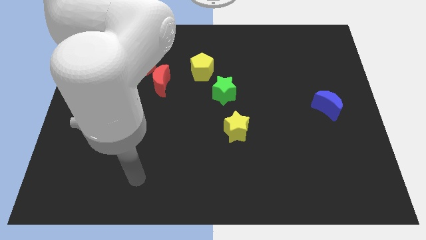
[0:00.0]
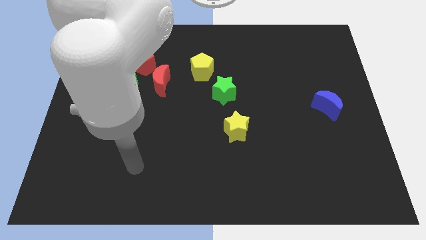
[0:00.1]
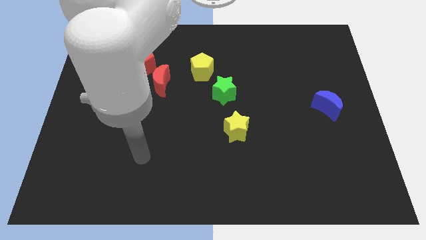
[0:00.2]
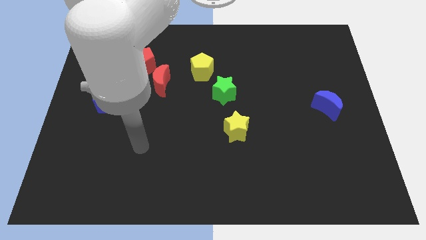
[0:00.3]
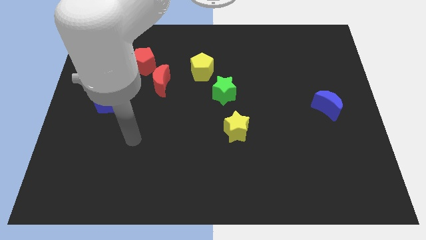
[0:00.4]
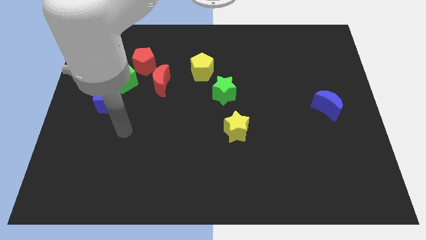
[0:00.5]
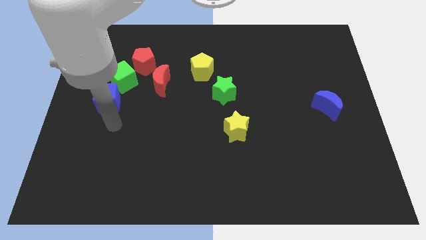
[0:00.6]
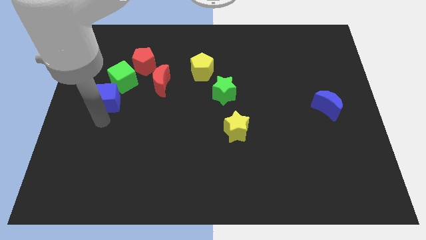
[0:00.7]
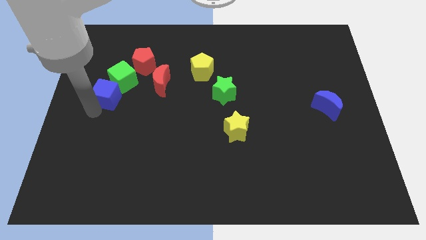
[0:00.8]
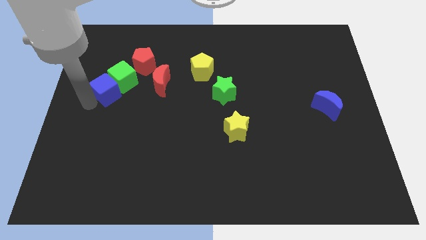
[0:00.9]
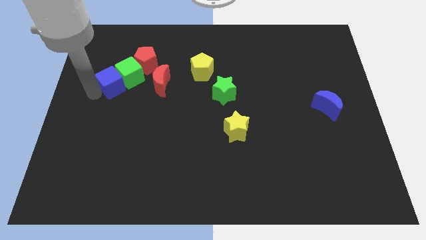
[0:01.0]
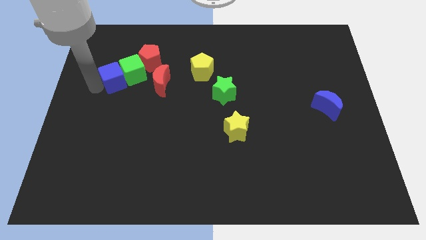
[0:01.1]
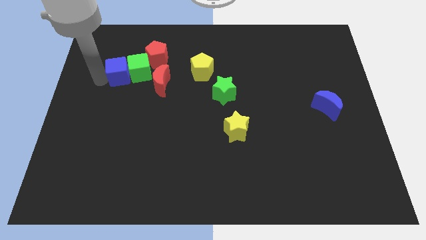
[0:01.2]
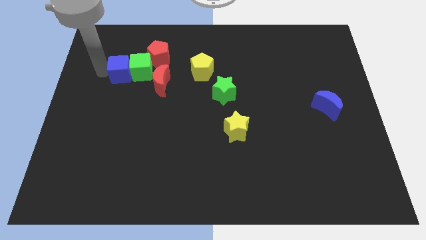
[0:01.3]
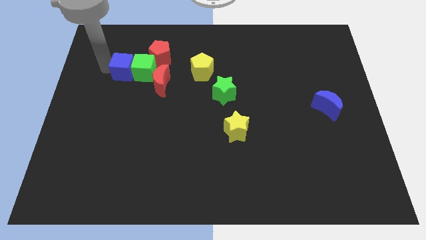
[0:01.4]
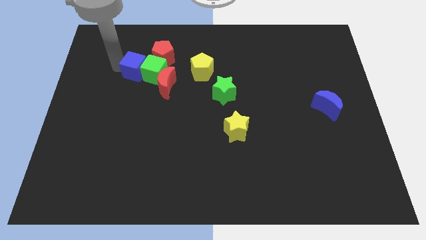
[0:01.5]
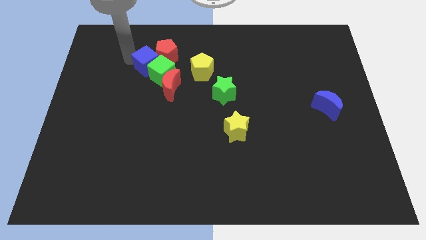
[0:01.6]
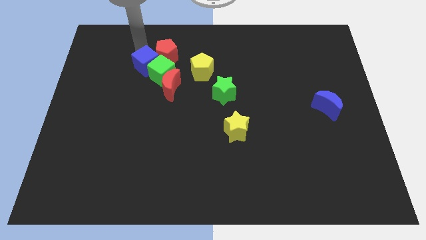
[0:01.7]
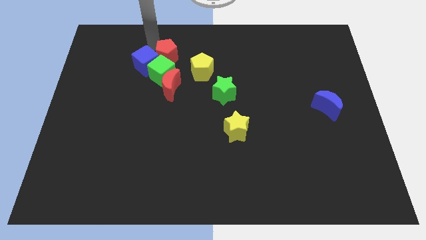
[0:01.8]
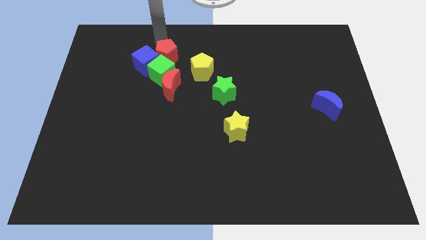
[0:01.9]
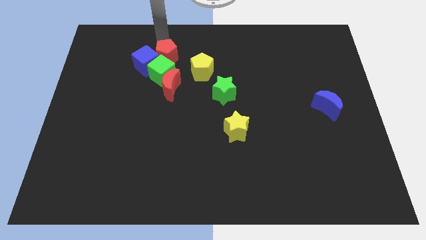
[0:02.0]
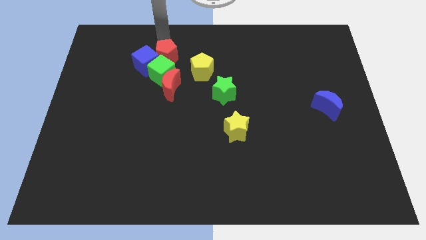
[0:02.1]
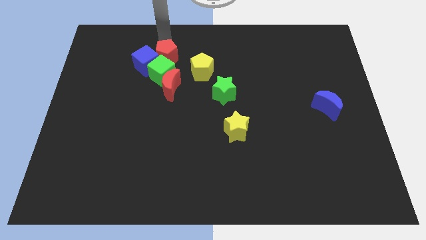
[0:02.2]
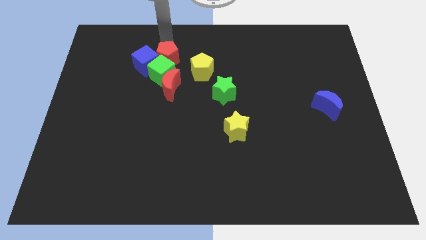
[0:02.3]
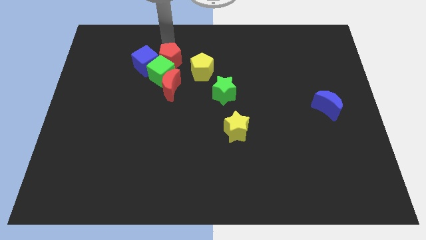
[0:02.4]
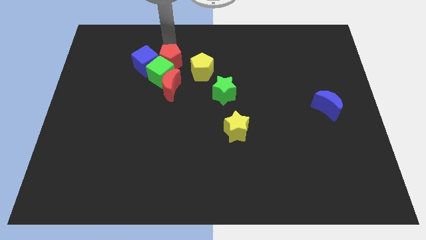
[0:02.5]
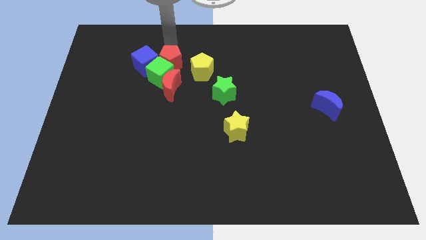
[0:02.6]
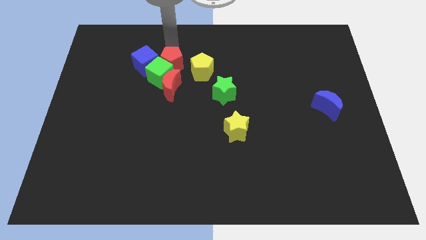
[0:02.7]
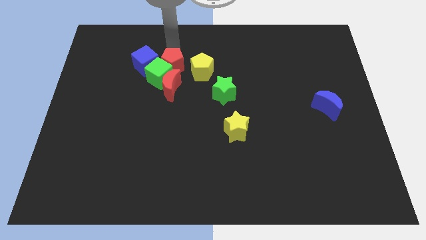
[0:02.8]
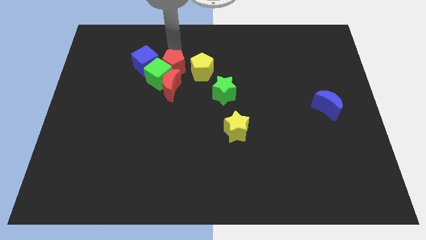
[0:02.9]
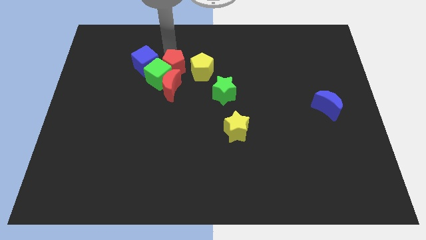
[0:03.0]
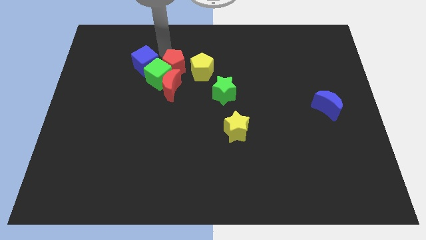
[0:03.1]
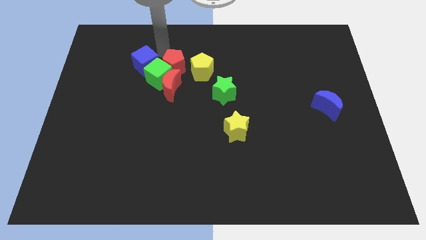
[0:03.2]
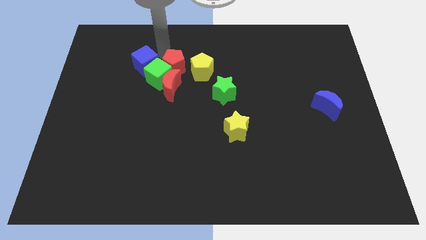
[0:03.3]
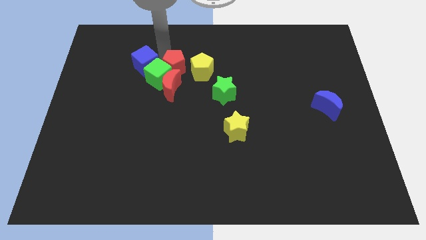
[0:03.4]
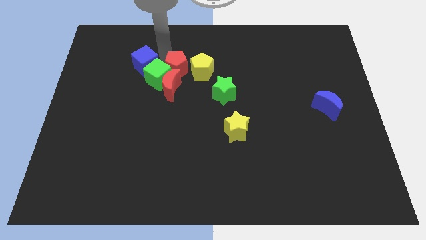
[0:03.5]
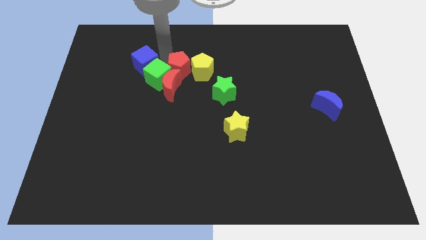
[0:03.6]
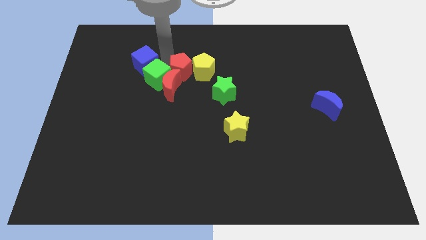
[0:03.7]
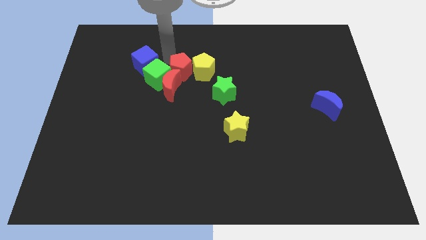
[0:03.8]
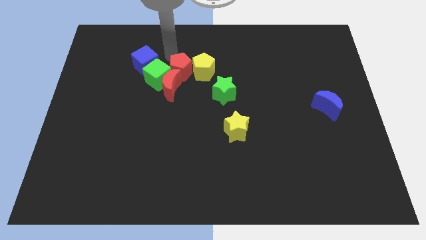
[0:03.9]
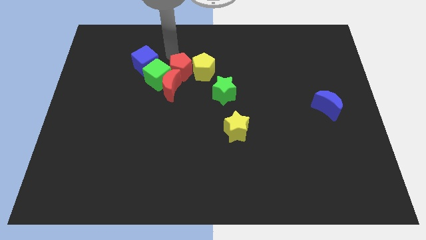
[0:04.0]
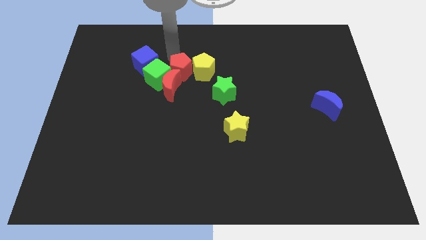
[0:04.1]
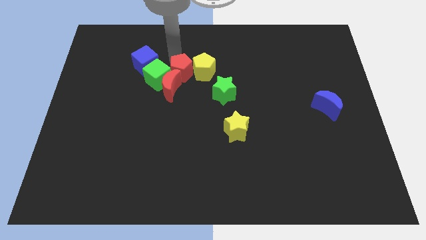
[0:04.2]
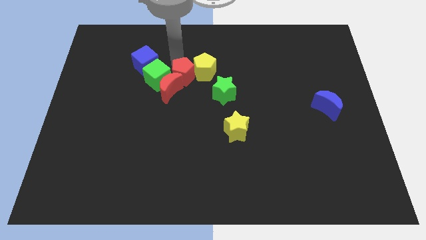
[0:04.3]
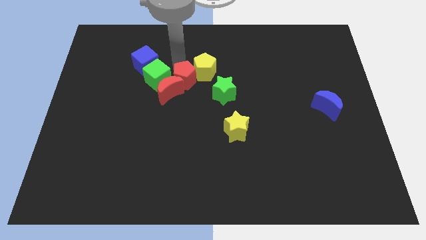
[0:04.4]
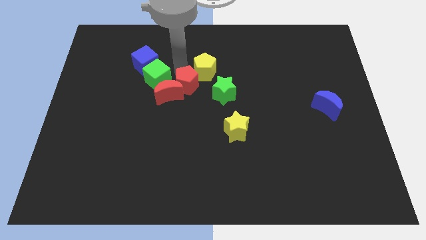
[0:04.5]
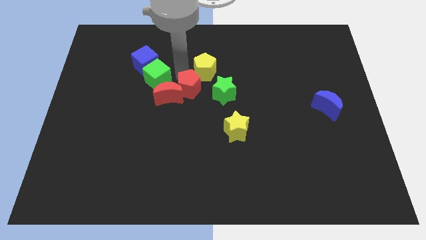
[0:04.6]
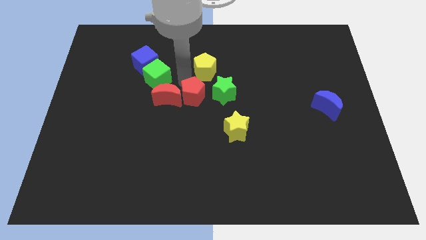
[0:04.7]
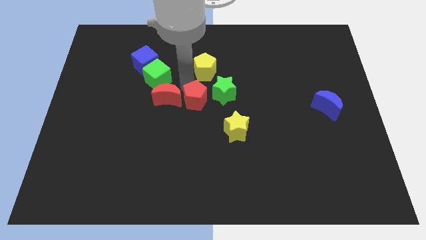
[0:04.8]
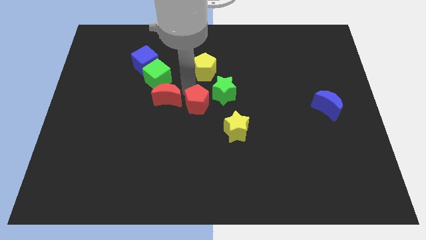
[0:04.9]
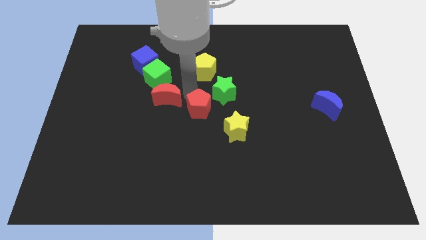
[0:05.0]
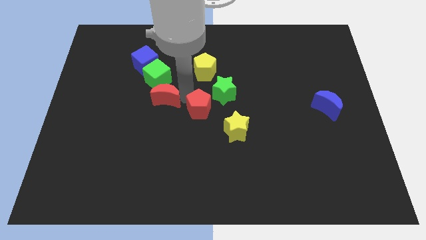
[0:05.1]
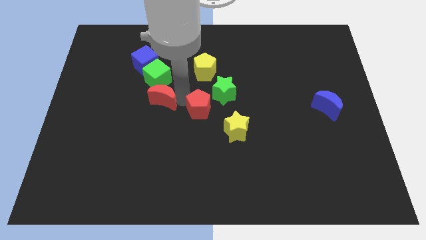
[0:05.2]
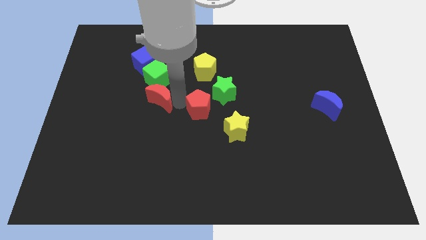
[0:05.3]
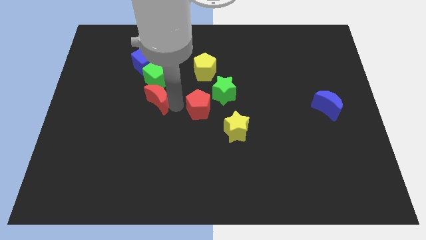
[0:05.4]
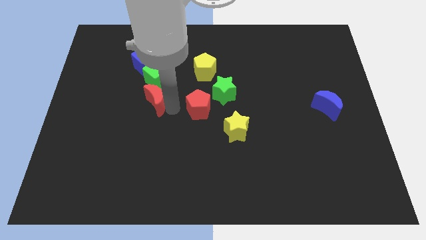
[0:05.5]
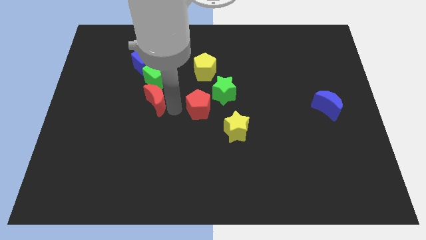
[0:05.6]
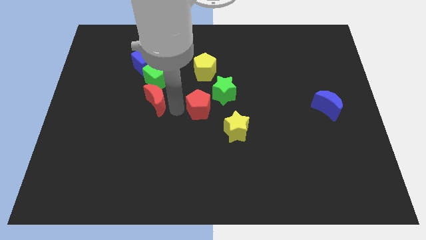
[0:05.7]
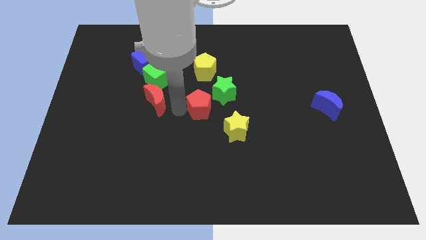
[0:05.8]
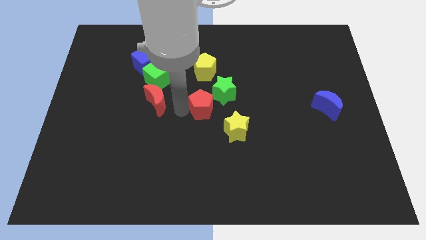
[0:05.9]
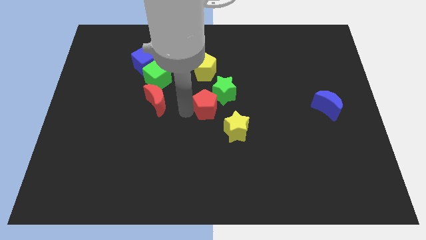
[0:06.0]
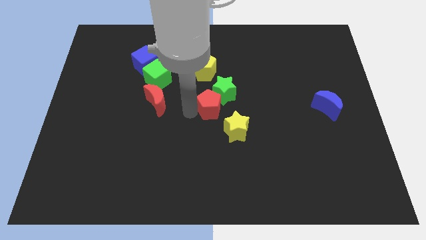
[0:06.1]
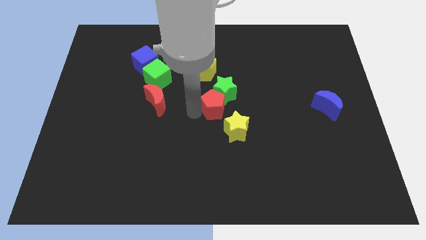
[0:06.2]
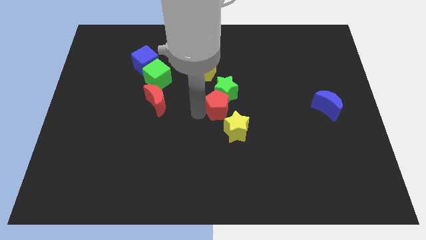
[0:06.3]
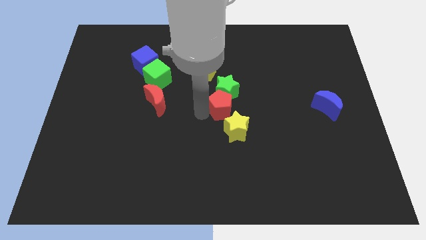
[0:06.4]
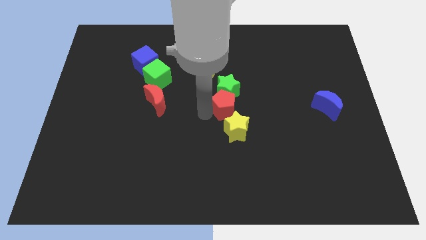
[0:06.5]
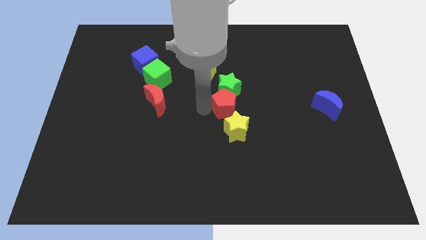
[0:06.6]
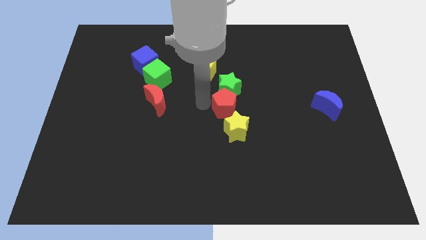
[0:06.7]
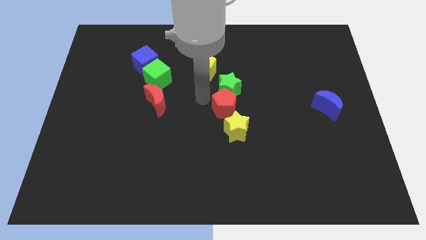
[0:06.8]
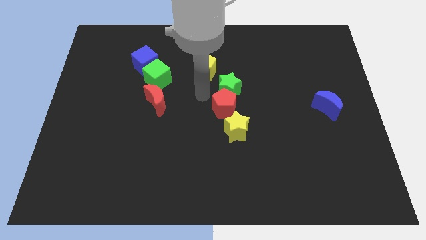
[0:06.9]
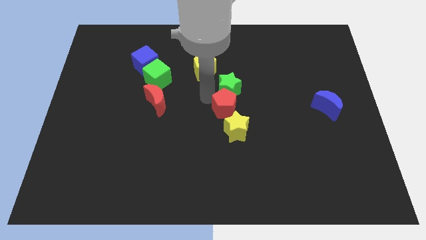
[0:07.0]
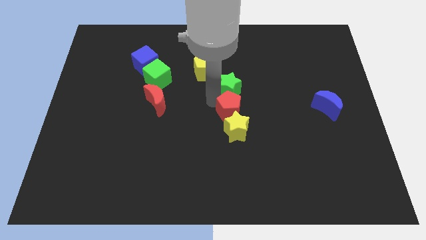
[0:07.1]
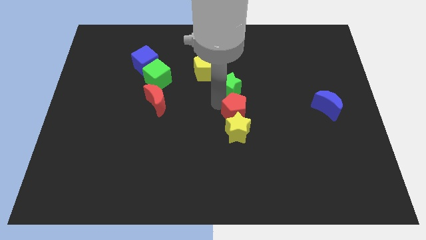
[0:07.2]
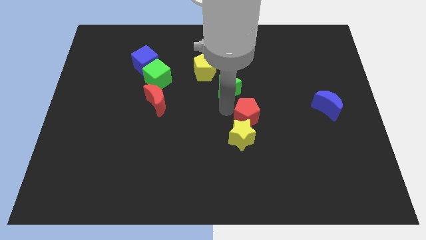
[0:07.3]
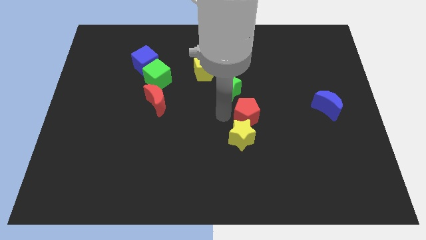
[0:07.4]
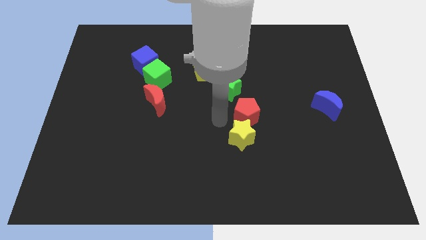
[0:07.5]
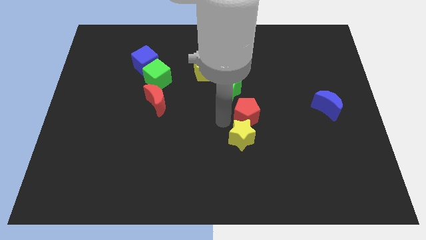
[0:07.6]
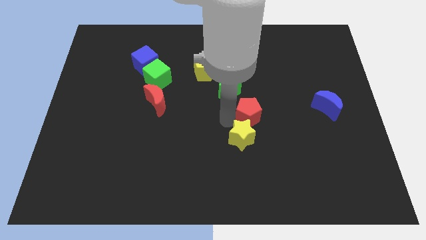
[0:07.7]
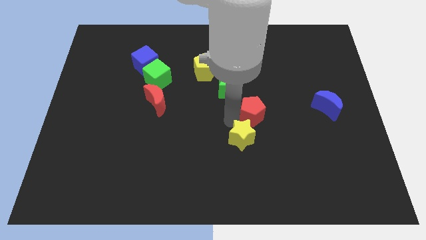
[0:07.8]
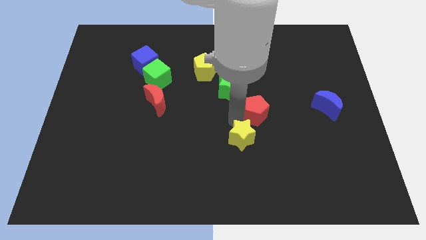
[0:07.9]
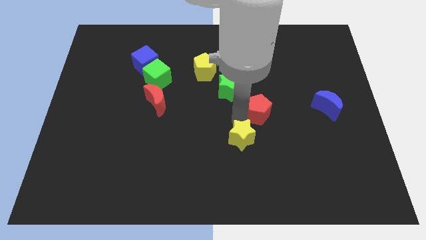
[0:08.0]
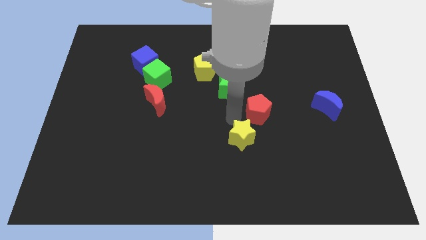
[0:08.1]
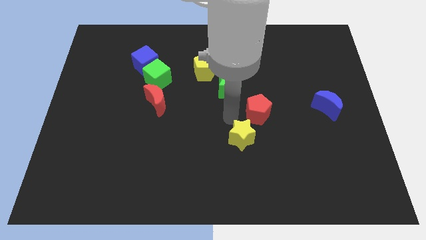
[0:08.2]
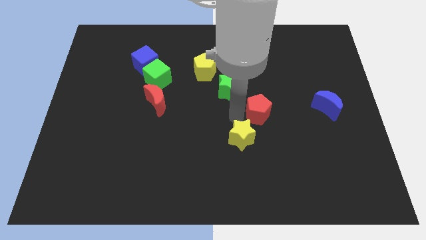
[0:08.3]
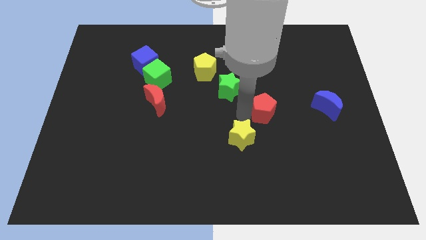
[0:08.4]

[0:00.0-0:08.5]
move the red pentagon to the left side of the blue moon
